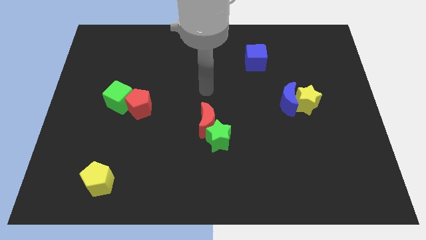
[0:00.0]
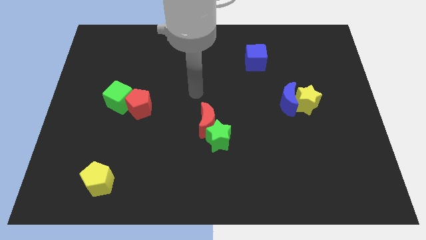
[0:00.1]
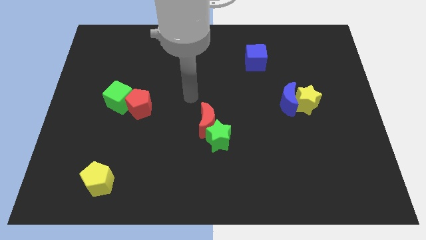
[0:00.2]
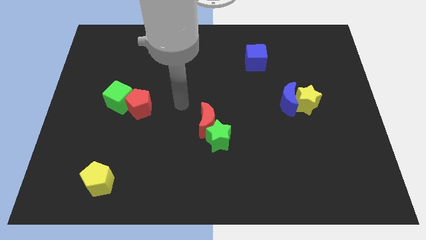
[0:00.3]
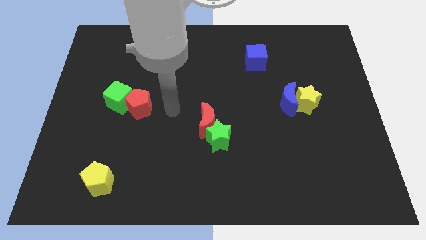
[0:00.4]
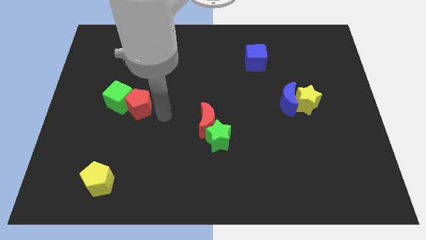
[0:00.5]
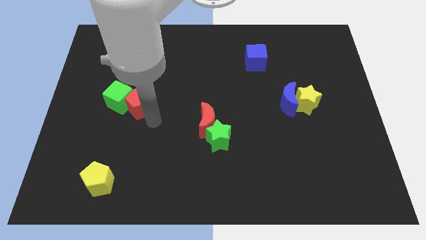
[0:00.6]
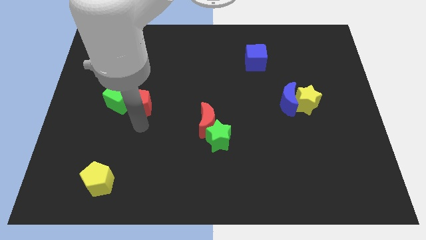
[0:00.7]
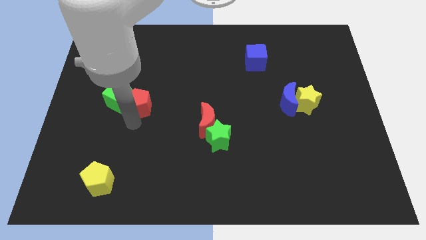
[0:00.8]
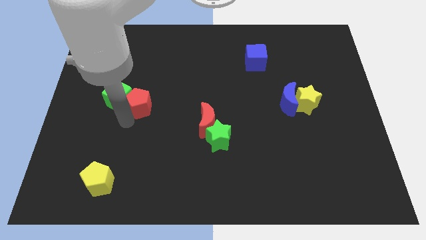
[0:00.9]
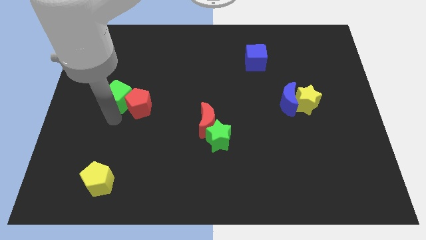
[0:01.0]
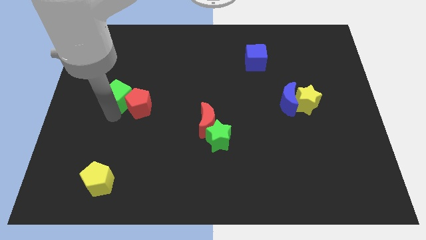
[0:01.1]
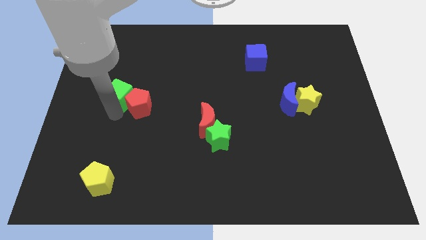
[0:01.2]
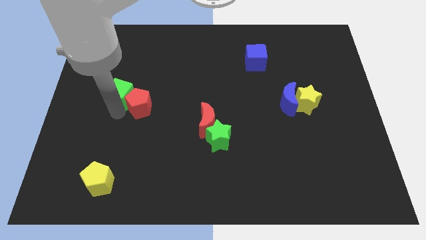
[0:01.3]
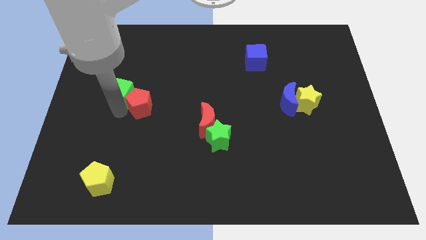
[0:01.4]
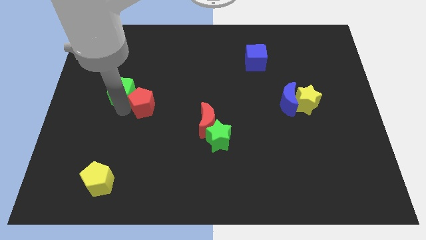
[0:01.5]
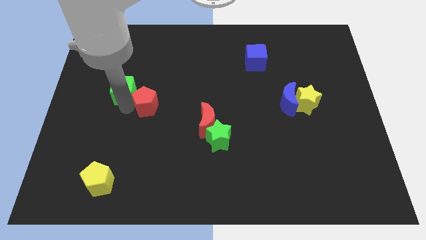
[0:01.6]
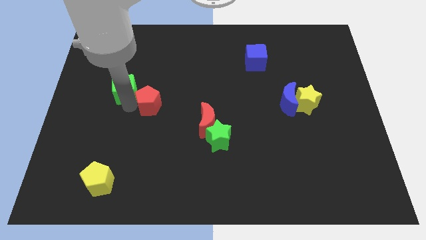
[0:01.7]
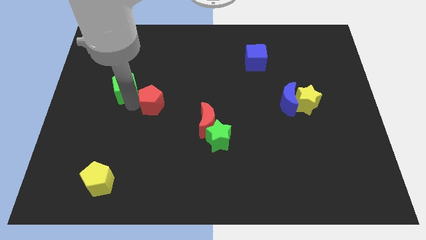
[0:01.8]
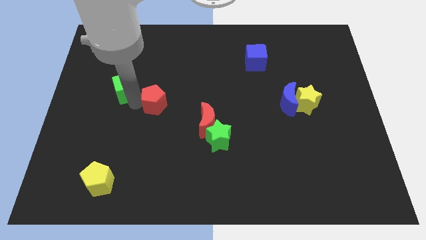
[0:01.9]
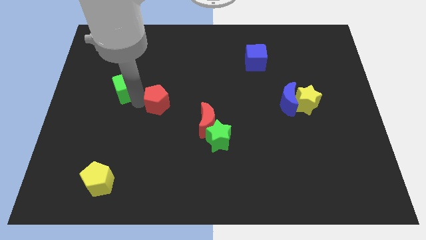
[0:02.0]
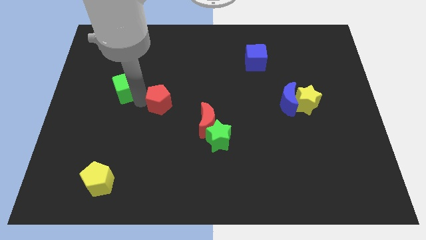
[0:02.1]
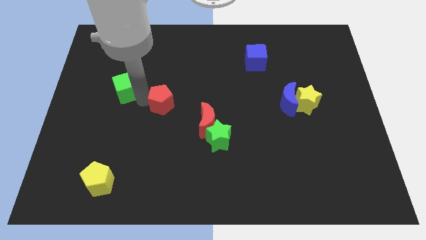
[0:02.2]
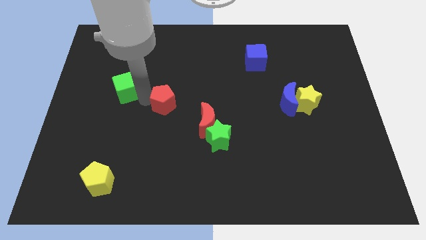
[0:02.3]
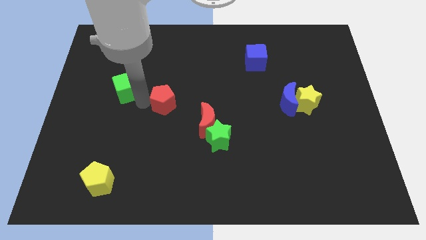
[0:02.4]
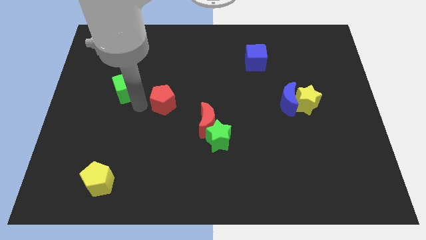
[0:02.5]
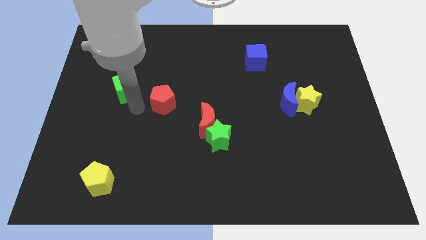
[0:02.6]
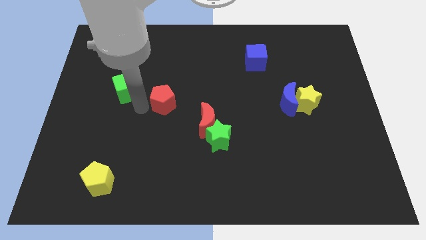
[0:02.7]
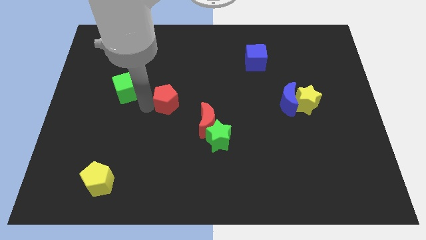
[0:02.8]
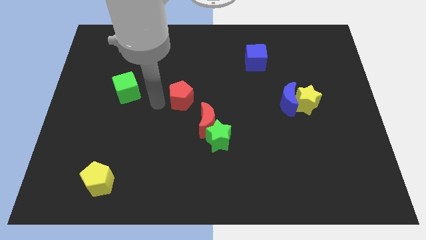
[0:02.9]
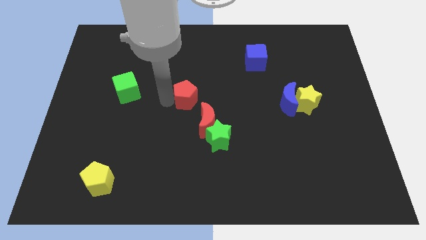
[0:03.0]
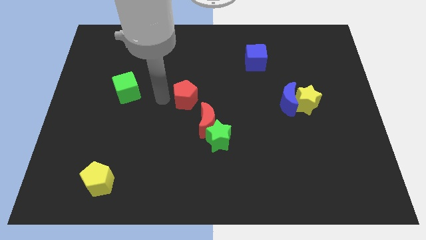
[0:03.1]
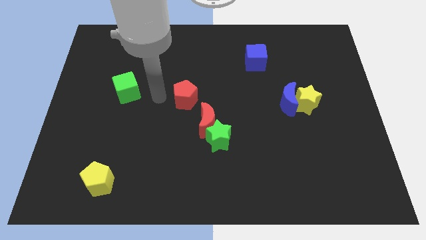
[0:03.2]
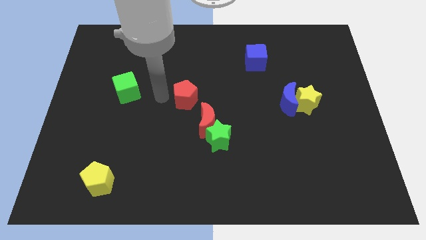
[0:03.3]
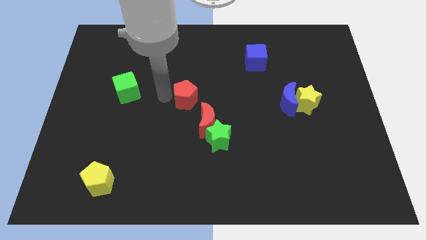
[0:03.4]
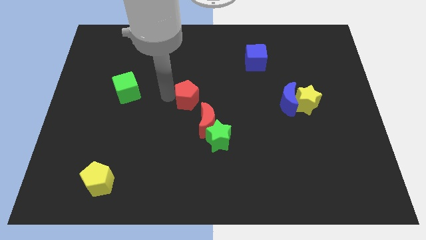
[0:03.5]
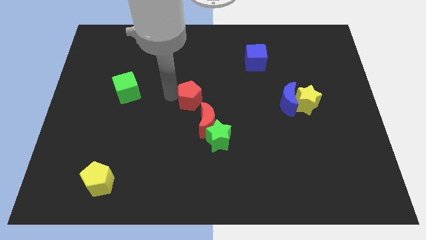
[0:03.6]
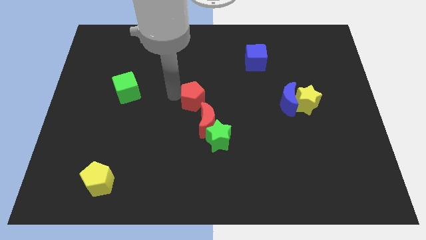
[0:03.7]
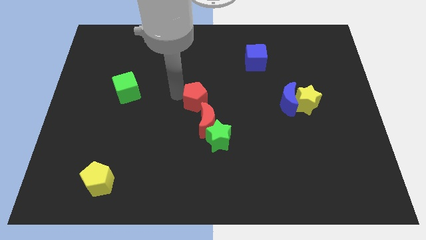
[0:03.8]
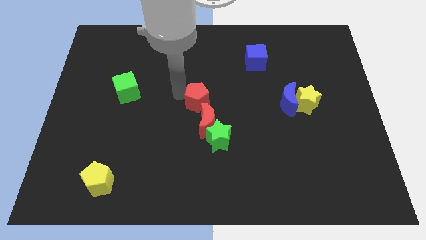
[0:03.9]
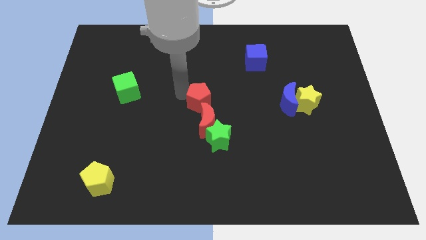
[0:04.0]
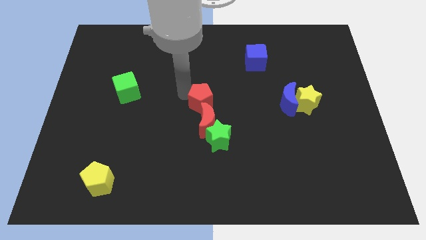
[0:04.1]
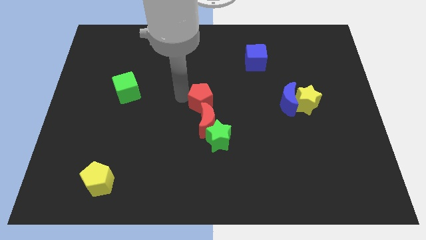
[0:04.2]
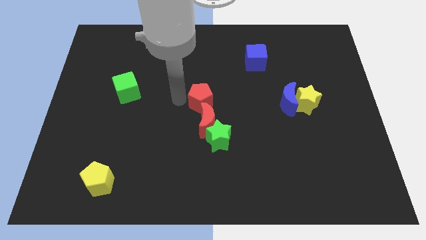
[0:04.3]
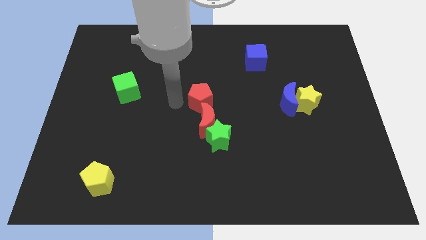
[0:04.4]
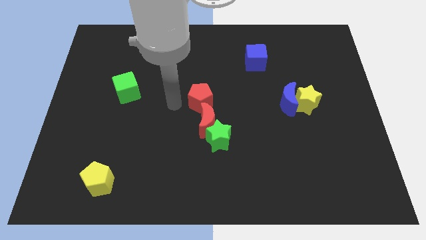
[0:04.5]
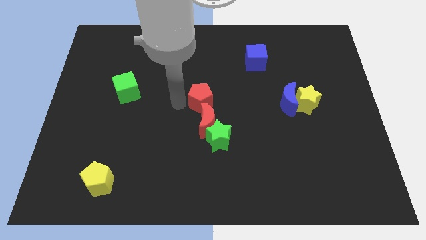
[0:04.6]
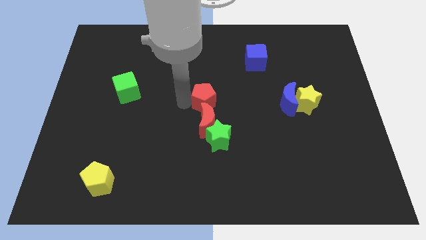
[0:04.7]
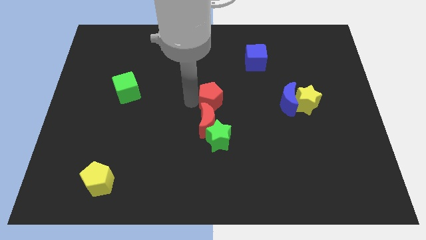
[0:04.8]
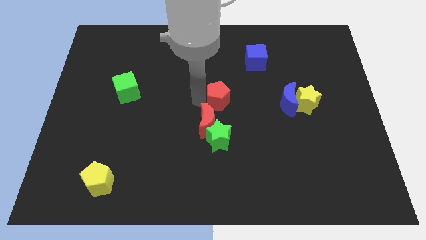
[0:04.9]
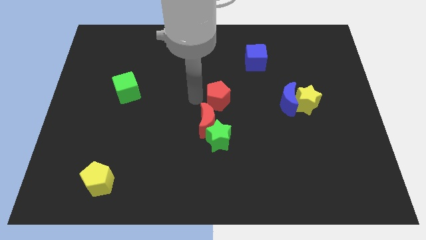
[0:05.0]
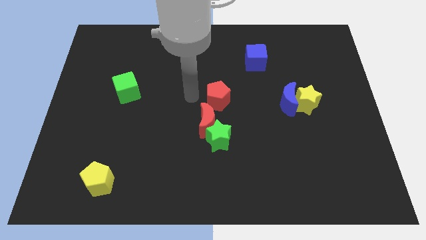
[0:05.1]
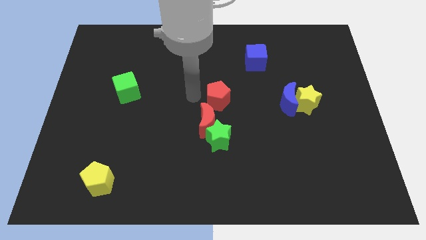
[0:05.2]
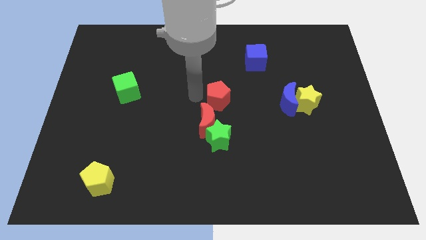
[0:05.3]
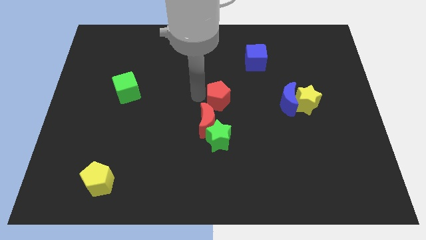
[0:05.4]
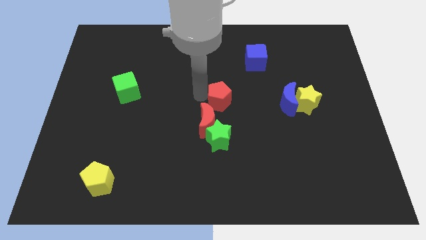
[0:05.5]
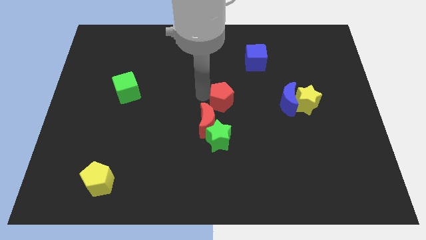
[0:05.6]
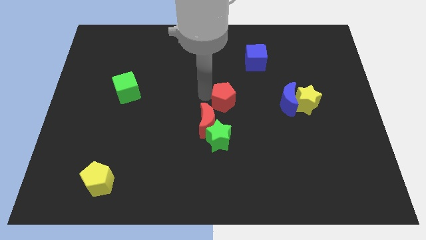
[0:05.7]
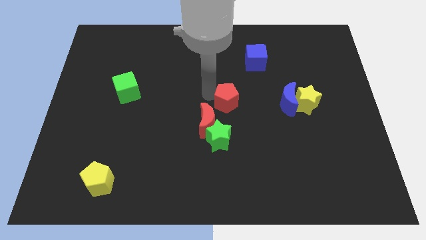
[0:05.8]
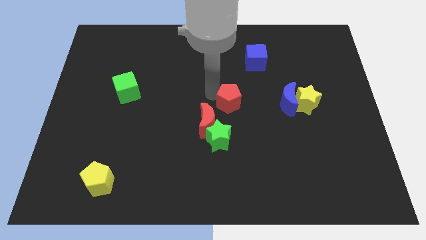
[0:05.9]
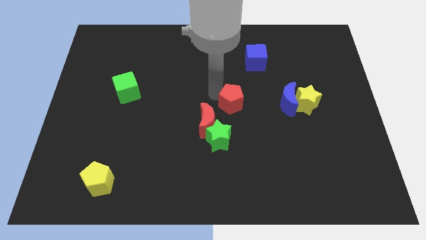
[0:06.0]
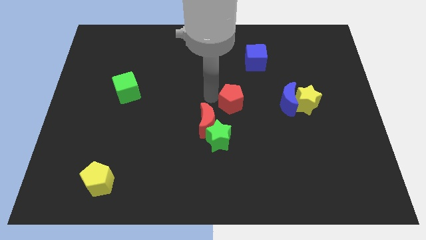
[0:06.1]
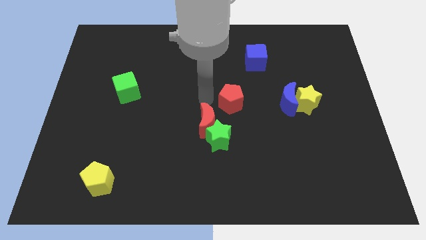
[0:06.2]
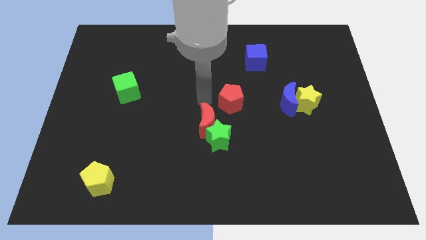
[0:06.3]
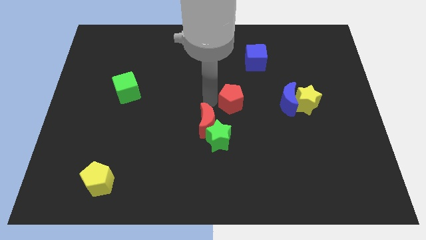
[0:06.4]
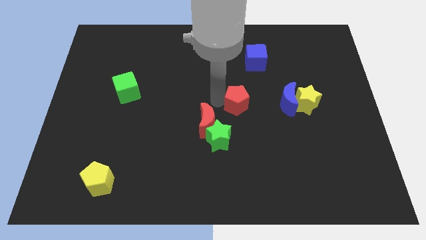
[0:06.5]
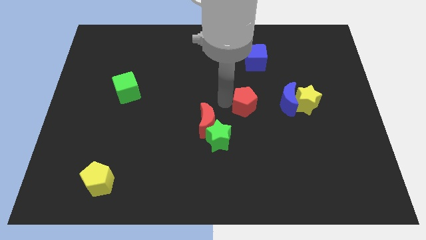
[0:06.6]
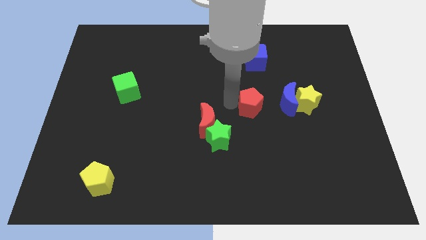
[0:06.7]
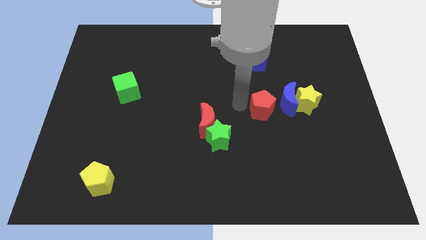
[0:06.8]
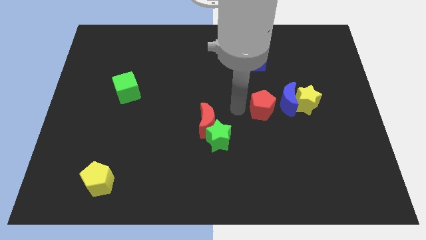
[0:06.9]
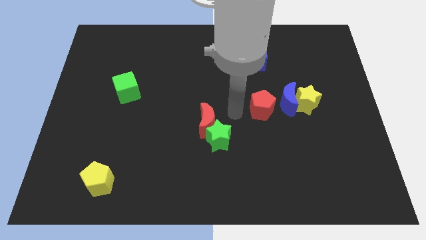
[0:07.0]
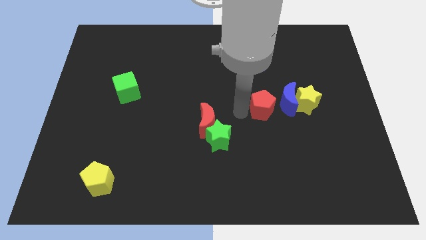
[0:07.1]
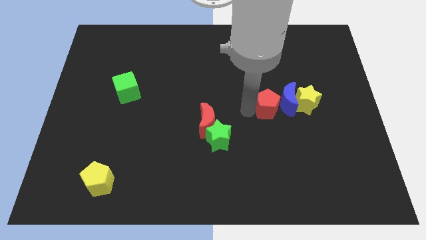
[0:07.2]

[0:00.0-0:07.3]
slide the red pentagon close to the blue moon
